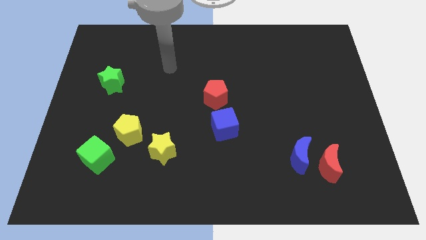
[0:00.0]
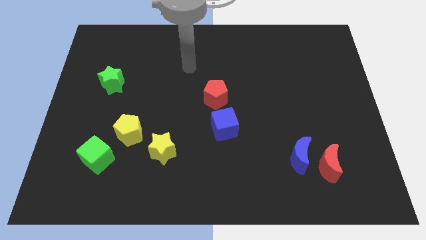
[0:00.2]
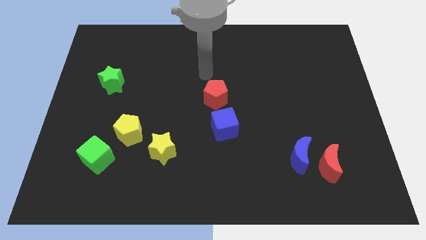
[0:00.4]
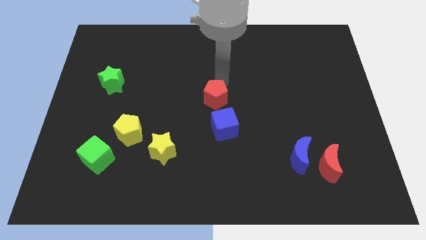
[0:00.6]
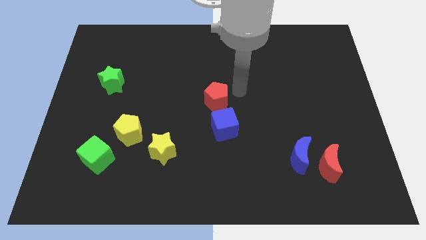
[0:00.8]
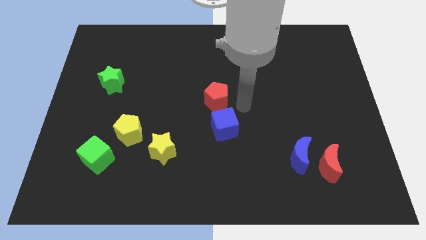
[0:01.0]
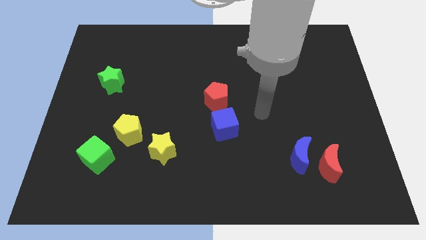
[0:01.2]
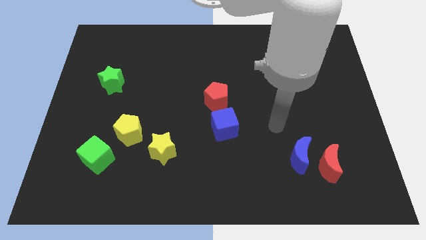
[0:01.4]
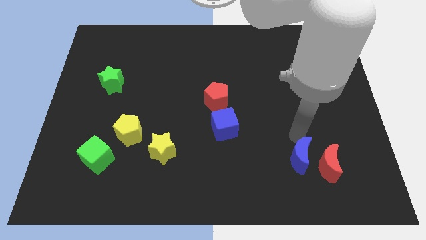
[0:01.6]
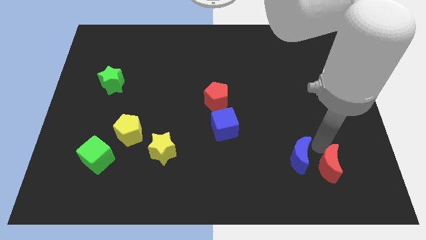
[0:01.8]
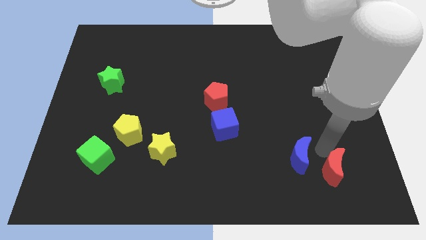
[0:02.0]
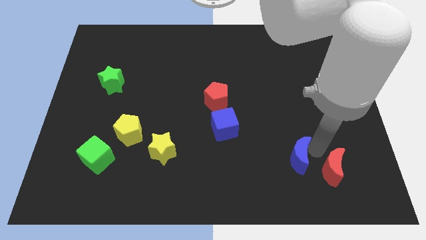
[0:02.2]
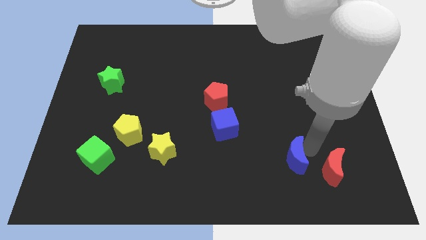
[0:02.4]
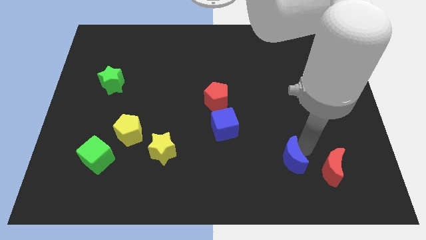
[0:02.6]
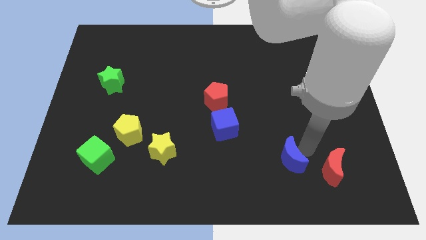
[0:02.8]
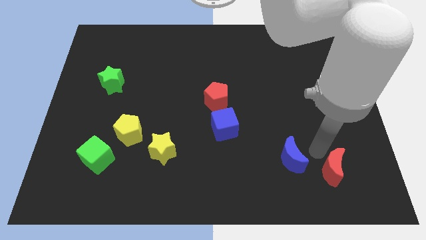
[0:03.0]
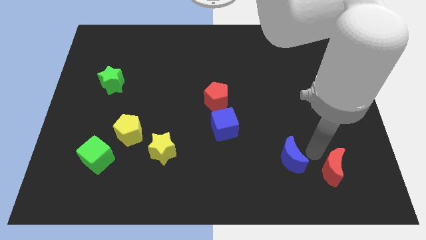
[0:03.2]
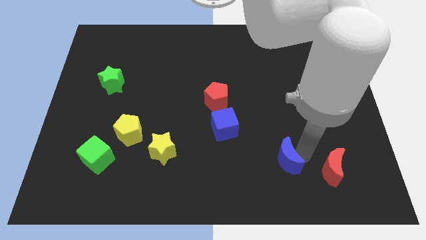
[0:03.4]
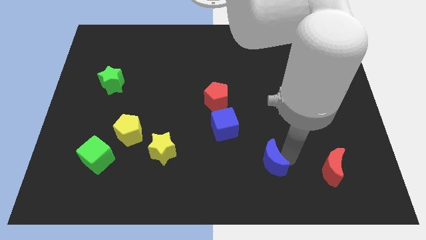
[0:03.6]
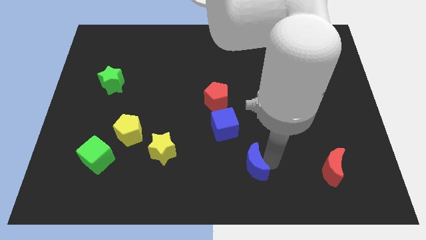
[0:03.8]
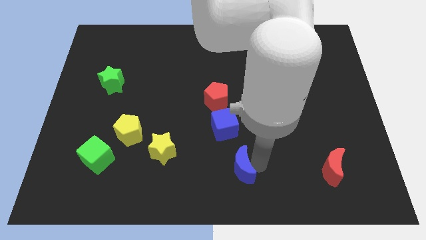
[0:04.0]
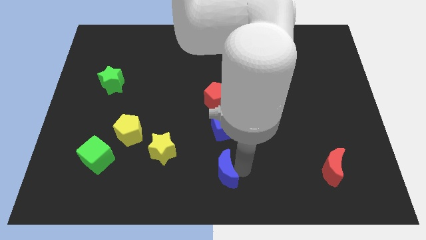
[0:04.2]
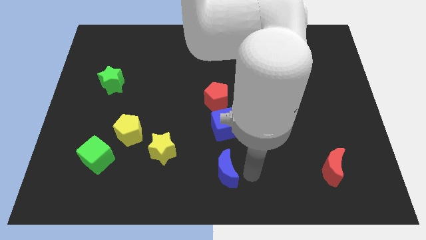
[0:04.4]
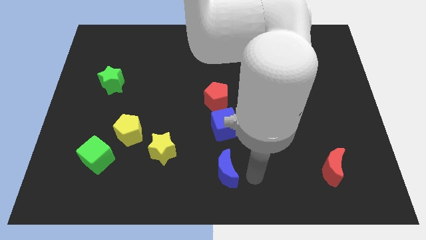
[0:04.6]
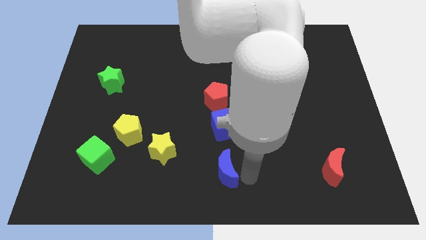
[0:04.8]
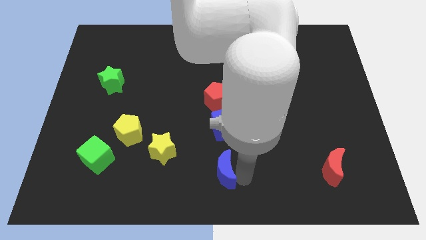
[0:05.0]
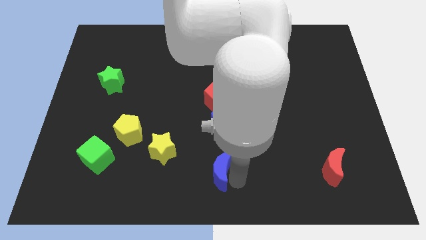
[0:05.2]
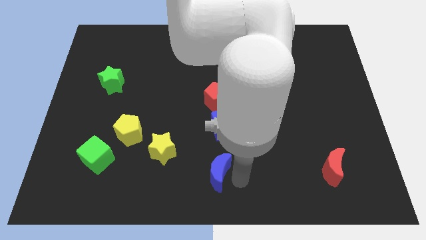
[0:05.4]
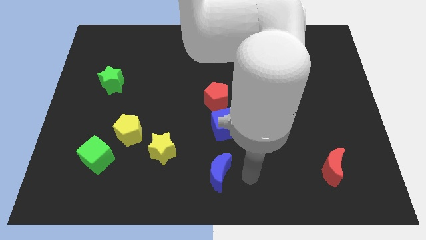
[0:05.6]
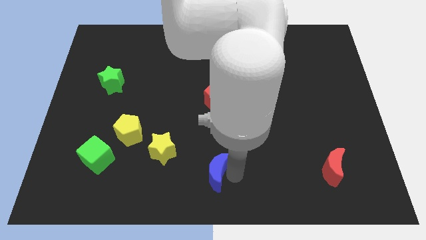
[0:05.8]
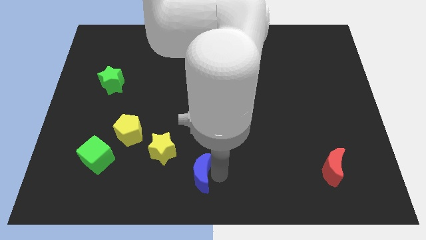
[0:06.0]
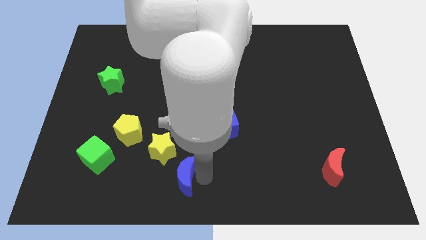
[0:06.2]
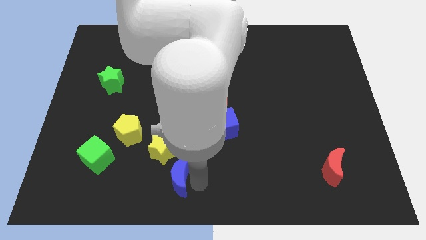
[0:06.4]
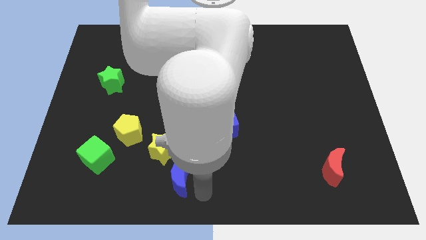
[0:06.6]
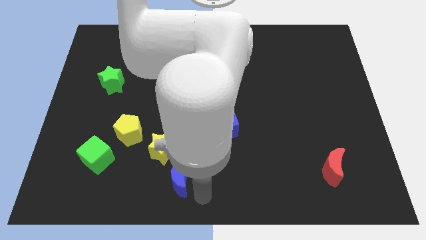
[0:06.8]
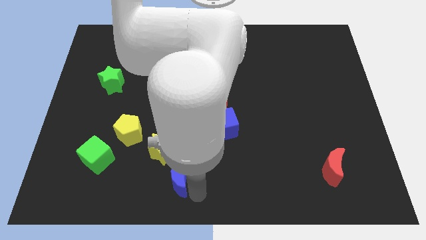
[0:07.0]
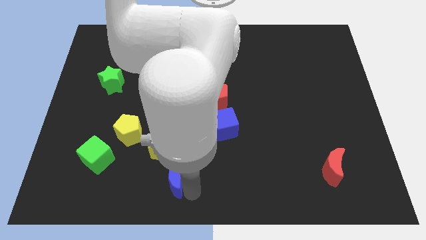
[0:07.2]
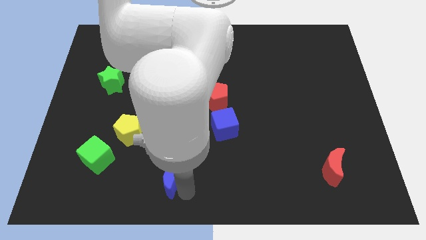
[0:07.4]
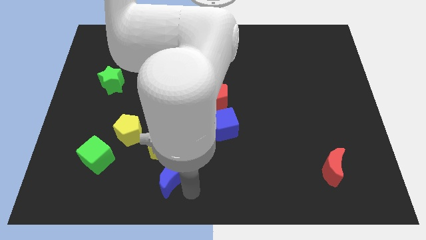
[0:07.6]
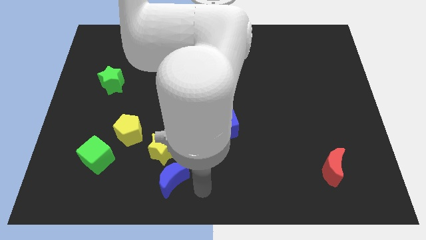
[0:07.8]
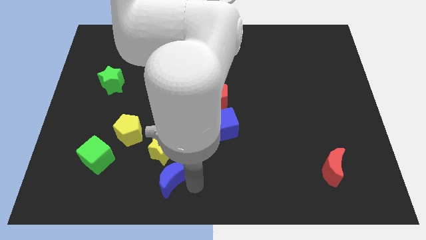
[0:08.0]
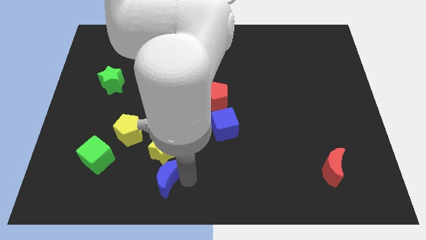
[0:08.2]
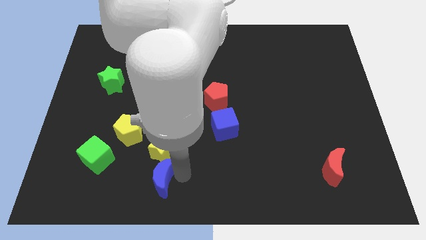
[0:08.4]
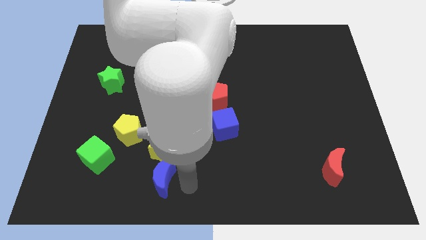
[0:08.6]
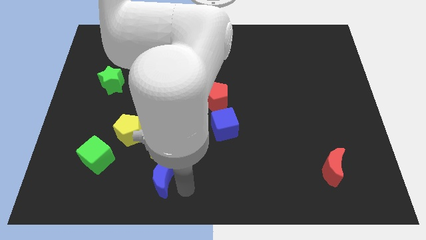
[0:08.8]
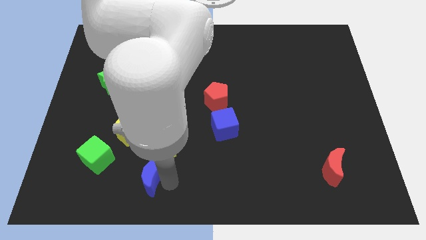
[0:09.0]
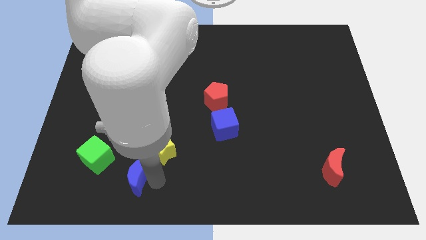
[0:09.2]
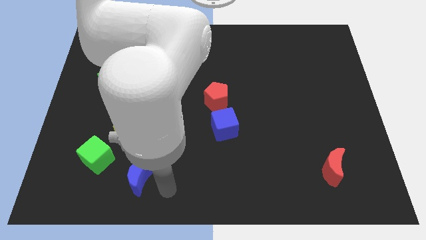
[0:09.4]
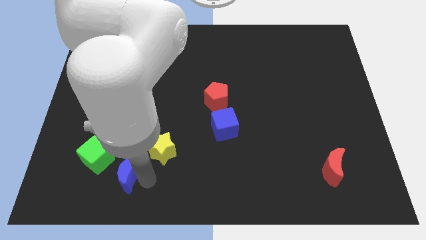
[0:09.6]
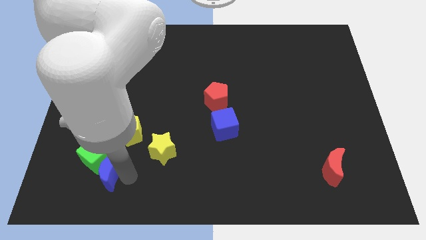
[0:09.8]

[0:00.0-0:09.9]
put the blue moon to the green cube

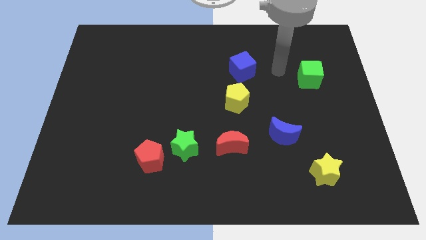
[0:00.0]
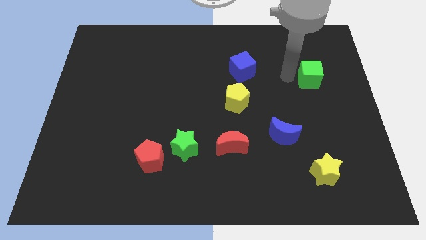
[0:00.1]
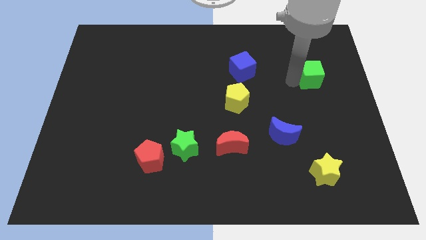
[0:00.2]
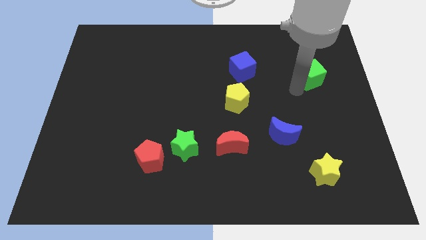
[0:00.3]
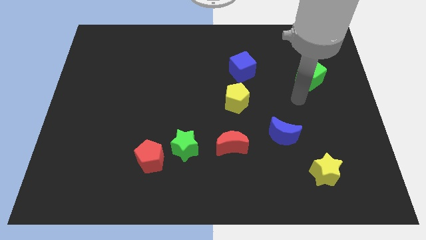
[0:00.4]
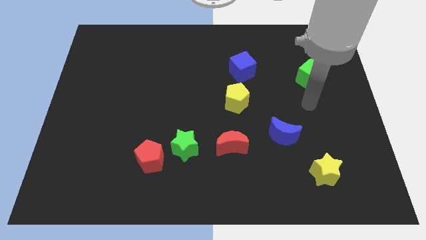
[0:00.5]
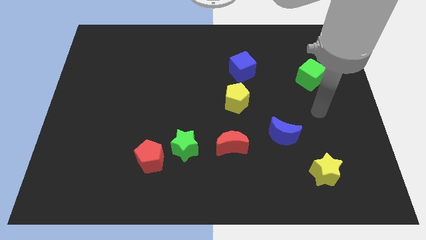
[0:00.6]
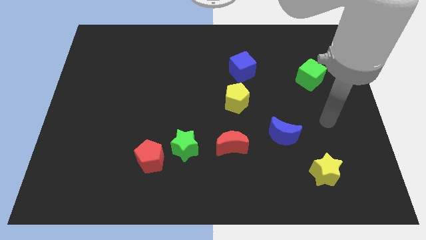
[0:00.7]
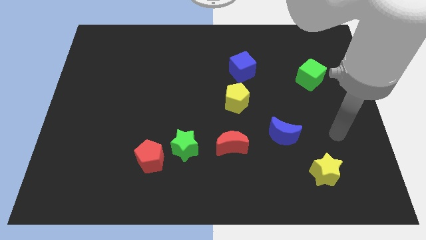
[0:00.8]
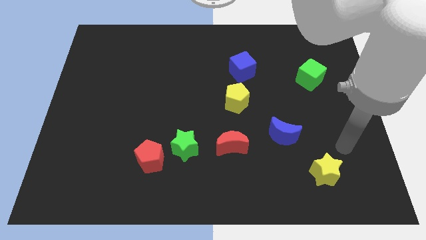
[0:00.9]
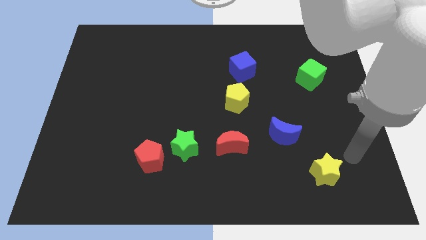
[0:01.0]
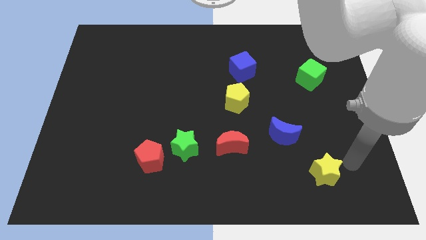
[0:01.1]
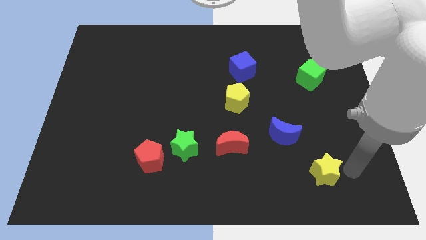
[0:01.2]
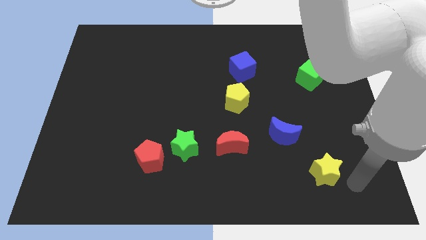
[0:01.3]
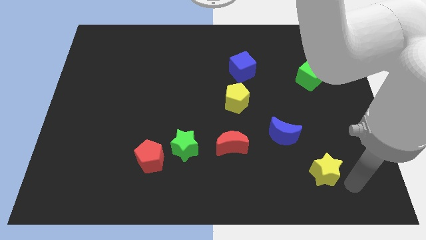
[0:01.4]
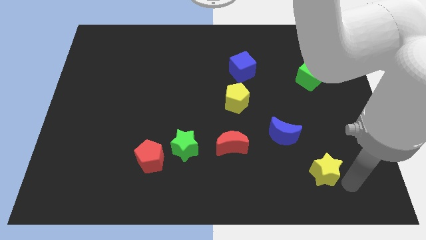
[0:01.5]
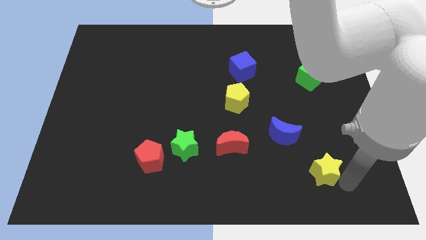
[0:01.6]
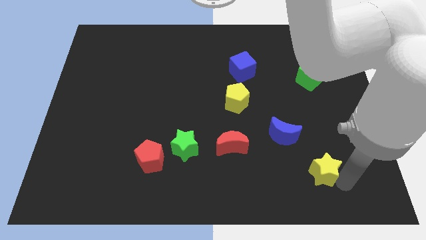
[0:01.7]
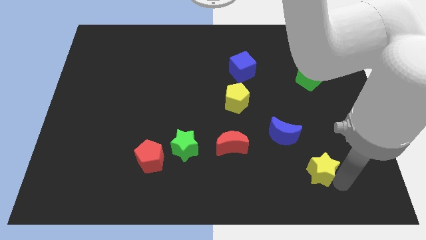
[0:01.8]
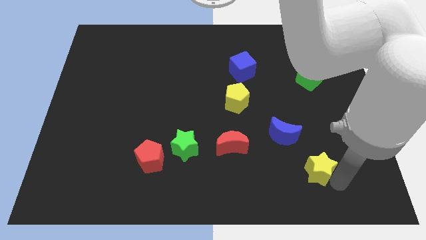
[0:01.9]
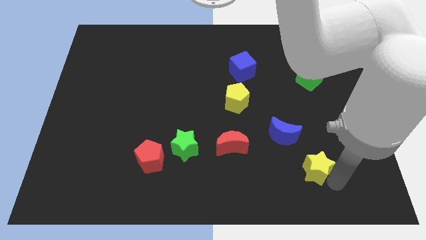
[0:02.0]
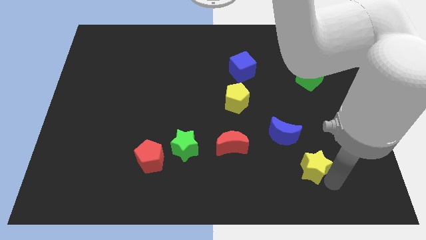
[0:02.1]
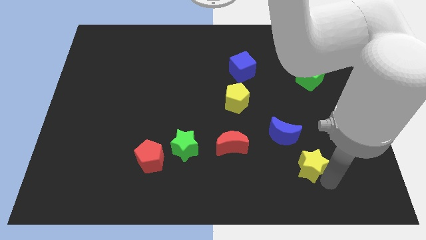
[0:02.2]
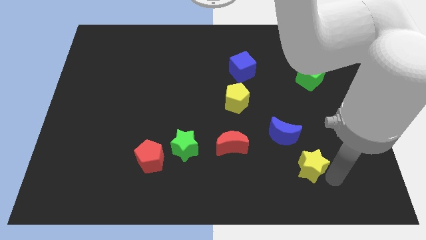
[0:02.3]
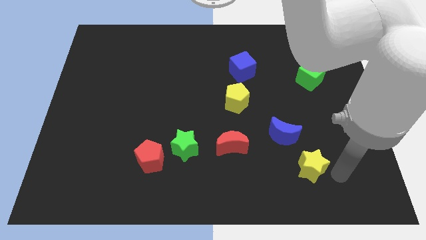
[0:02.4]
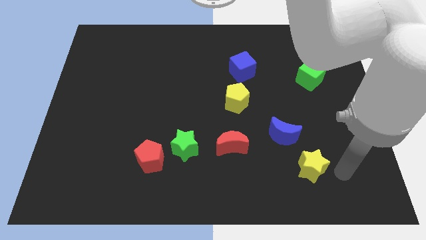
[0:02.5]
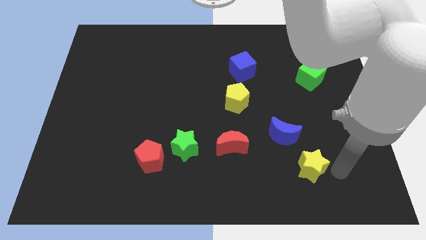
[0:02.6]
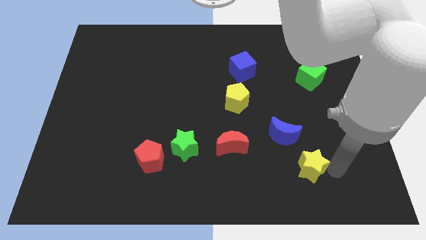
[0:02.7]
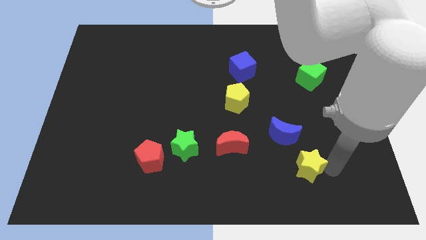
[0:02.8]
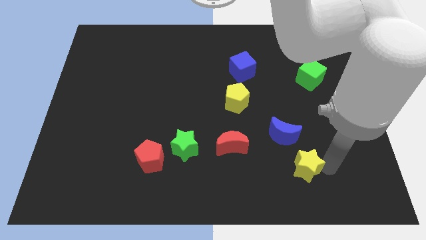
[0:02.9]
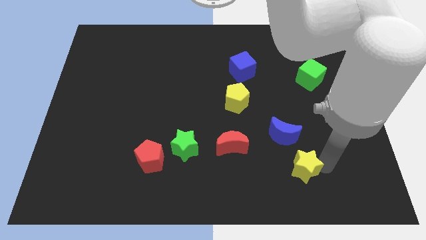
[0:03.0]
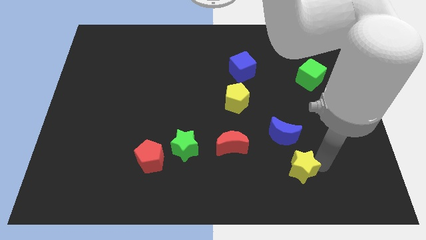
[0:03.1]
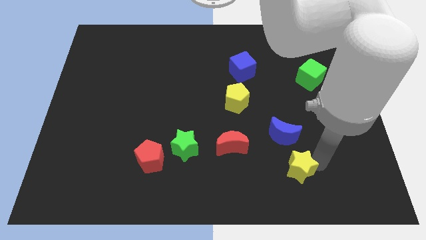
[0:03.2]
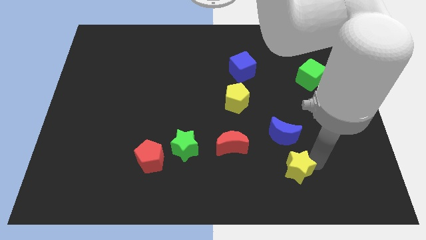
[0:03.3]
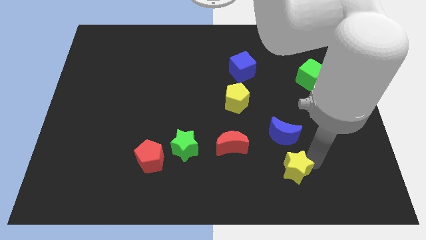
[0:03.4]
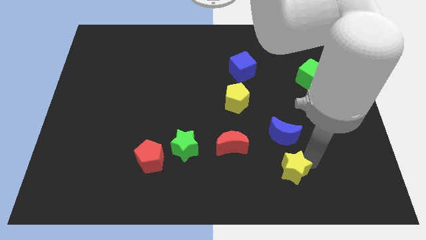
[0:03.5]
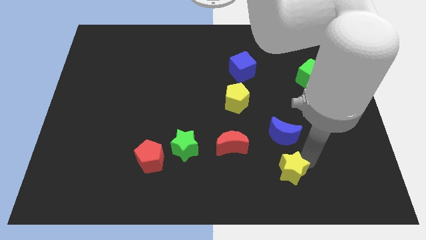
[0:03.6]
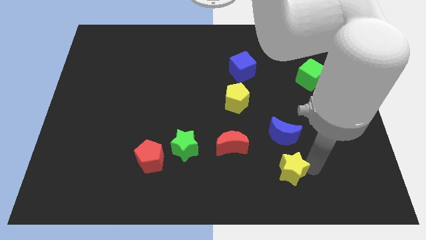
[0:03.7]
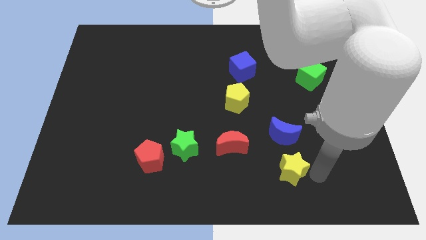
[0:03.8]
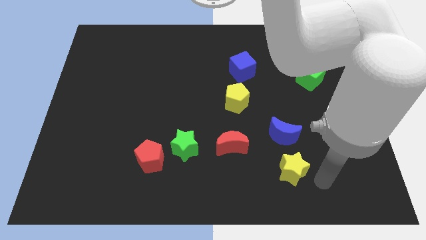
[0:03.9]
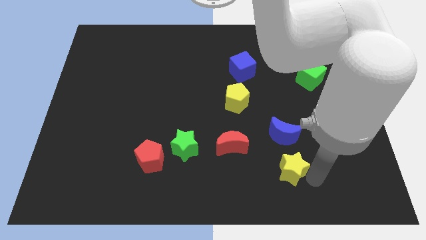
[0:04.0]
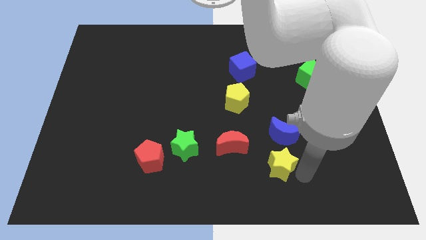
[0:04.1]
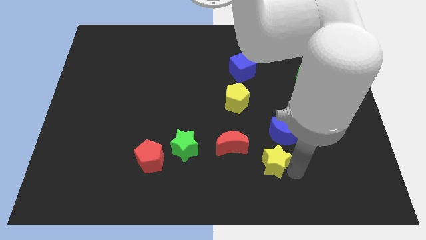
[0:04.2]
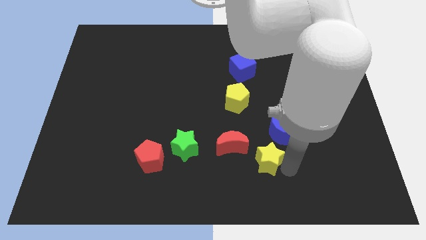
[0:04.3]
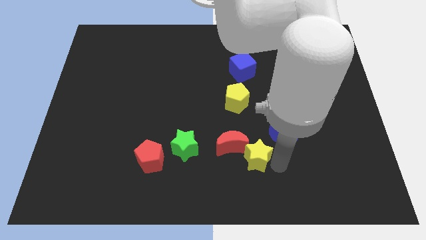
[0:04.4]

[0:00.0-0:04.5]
move the yellow star next to the red moon
